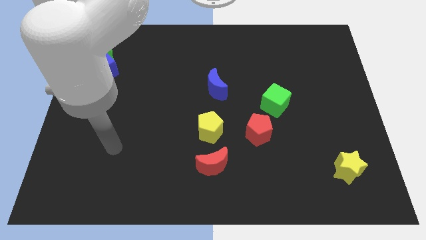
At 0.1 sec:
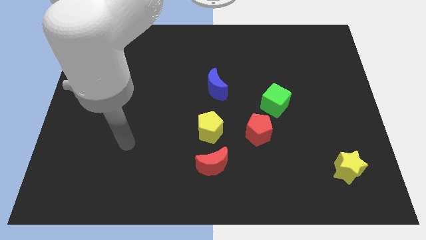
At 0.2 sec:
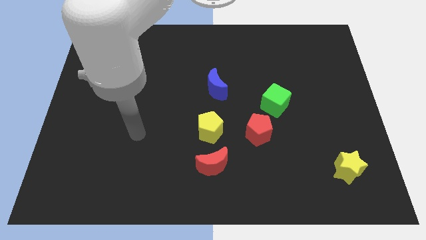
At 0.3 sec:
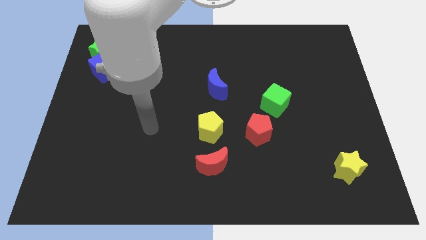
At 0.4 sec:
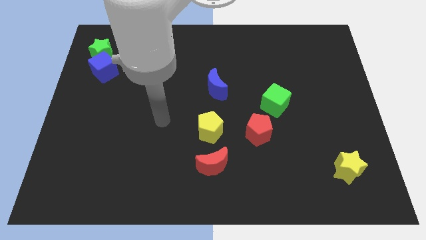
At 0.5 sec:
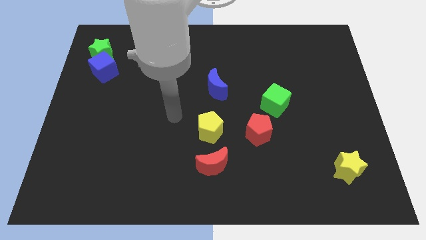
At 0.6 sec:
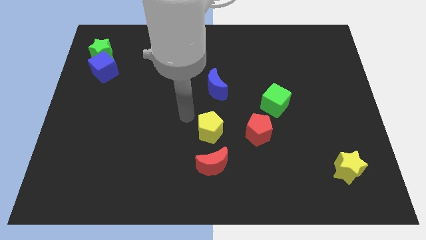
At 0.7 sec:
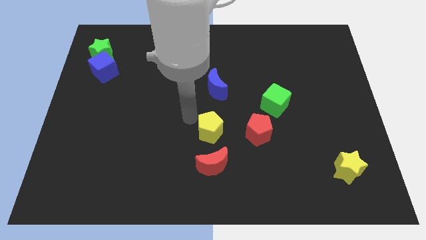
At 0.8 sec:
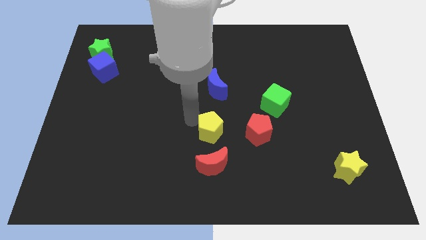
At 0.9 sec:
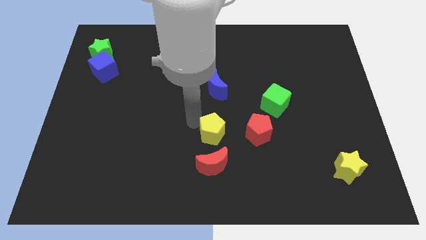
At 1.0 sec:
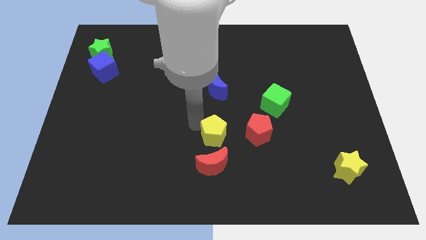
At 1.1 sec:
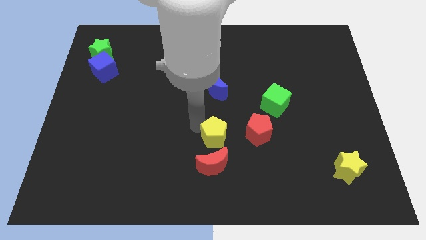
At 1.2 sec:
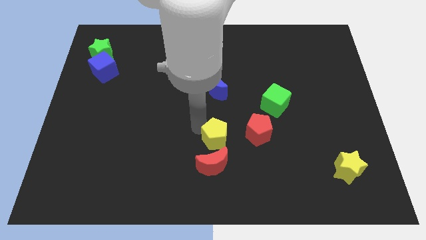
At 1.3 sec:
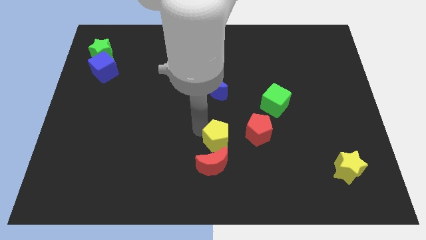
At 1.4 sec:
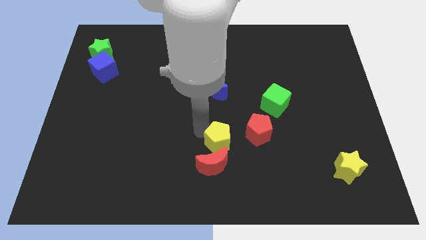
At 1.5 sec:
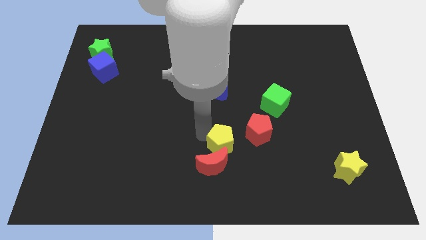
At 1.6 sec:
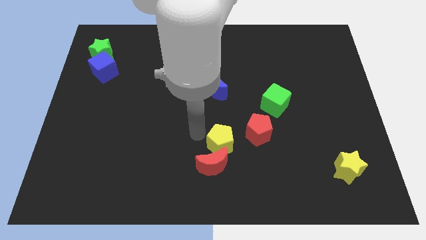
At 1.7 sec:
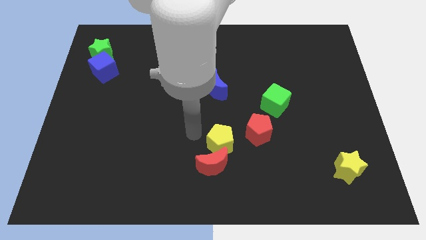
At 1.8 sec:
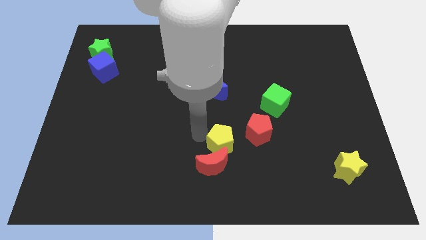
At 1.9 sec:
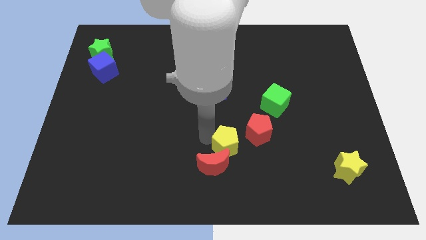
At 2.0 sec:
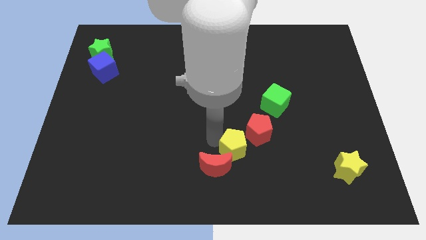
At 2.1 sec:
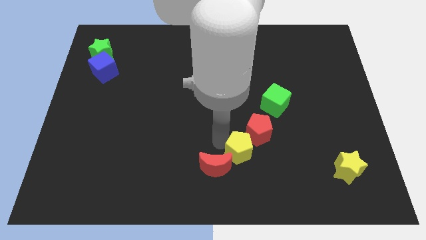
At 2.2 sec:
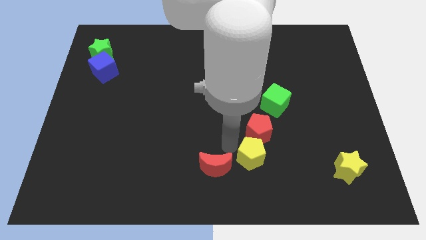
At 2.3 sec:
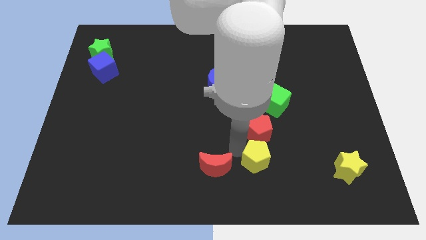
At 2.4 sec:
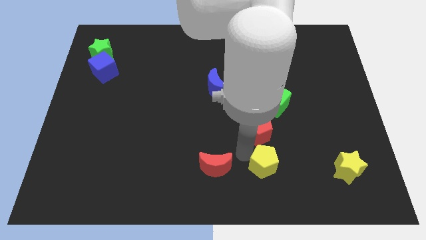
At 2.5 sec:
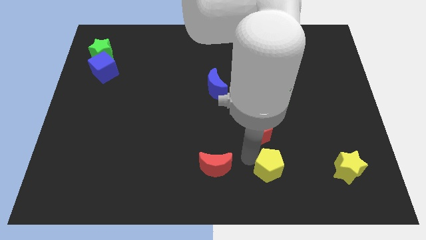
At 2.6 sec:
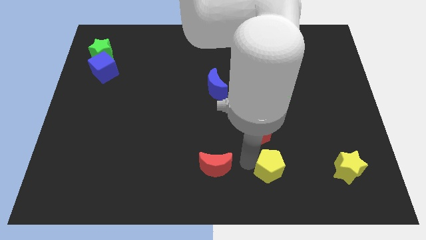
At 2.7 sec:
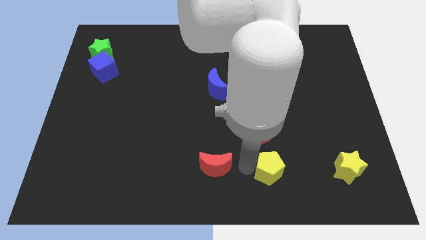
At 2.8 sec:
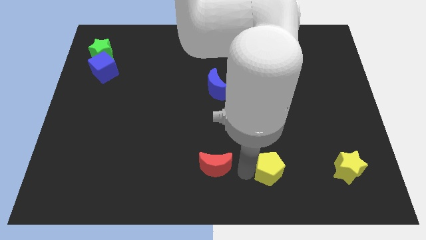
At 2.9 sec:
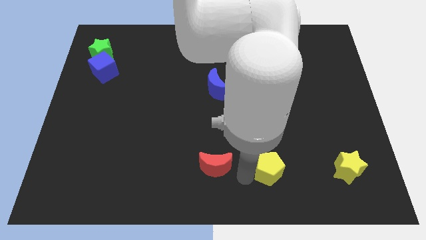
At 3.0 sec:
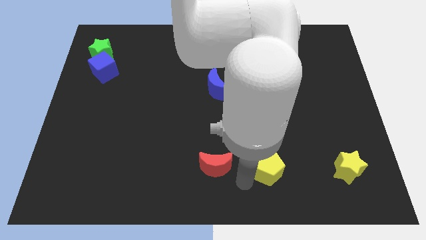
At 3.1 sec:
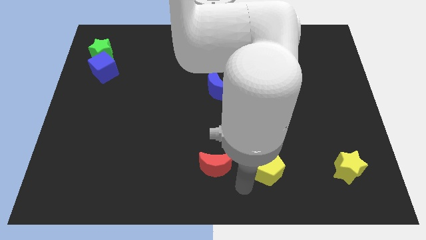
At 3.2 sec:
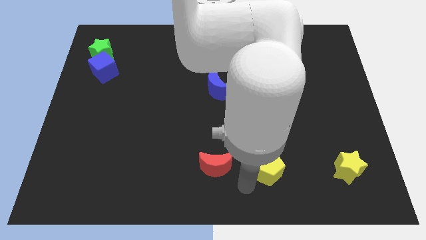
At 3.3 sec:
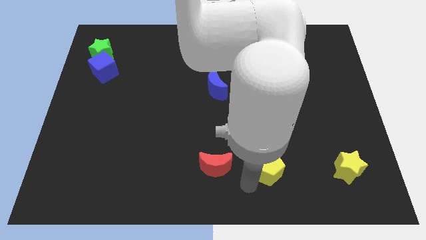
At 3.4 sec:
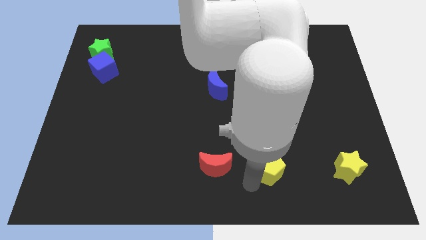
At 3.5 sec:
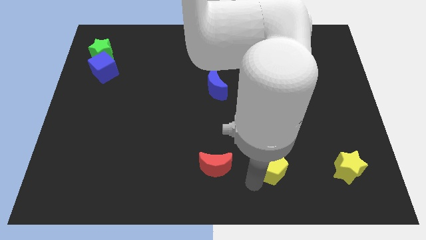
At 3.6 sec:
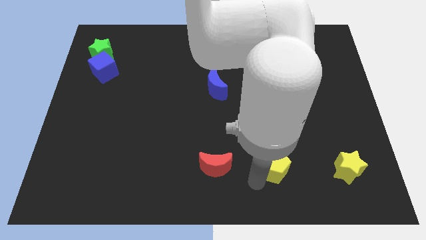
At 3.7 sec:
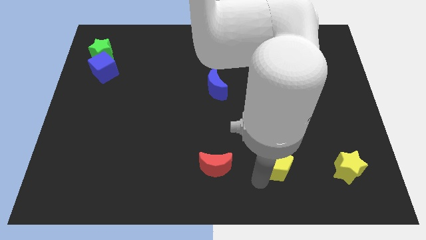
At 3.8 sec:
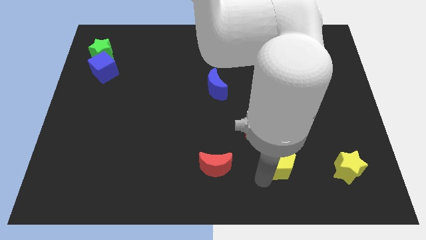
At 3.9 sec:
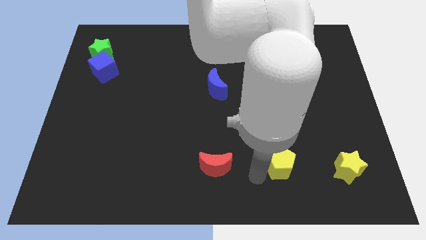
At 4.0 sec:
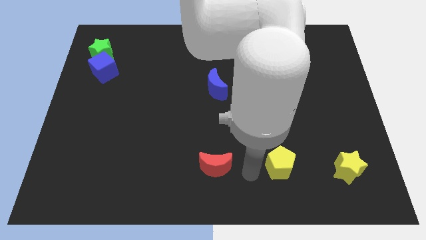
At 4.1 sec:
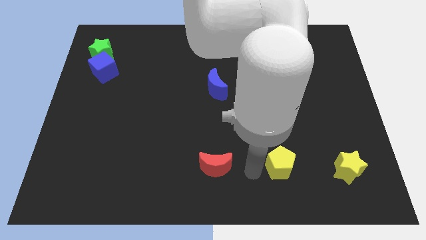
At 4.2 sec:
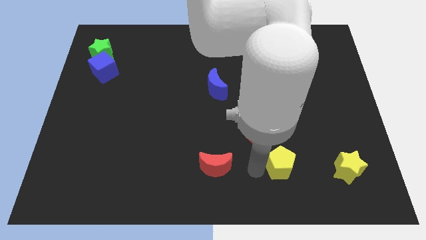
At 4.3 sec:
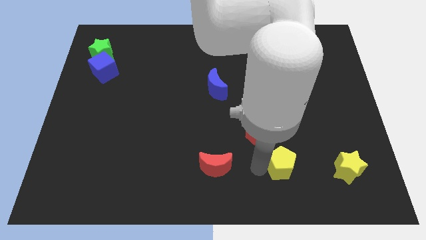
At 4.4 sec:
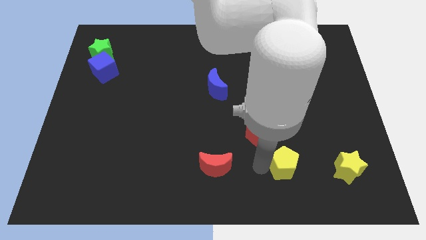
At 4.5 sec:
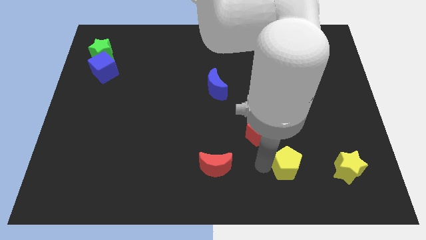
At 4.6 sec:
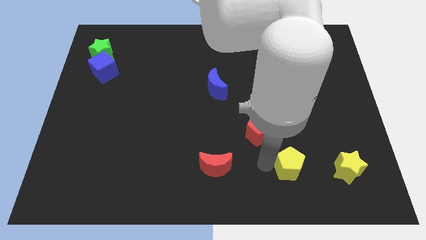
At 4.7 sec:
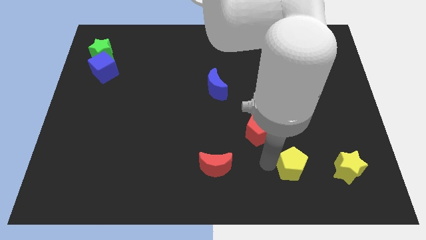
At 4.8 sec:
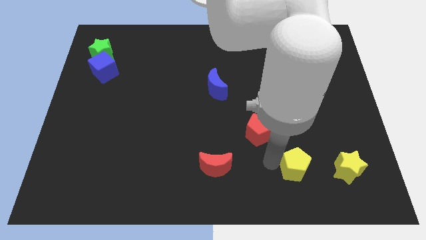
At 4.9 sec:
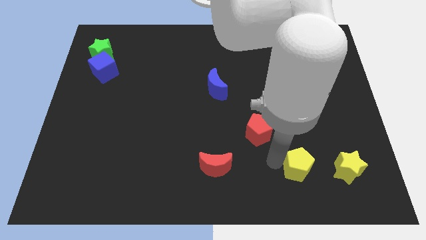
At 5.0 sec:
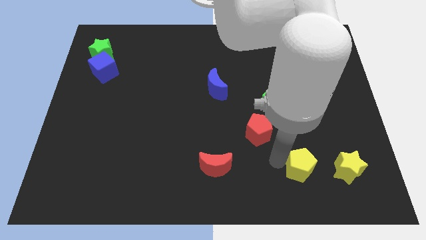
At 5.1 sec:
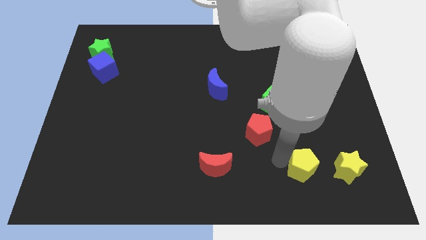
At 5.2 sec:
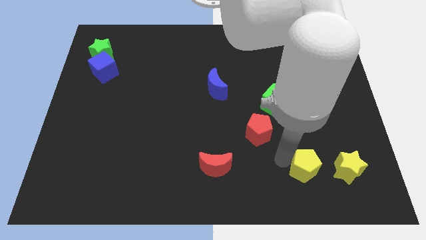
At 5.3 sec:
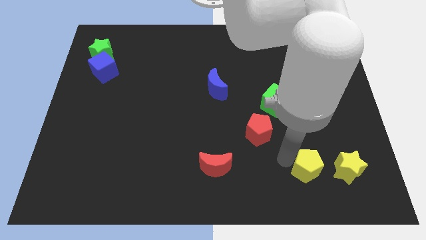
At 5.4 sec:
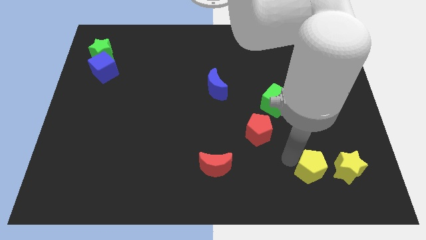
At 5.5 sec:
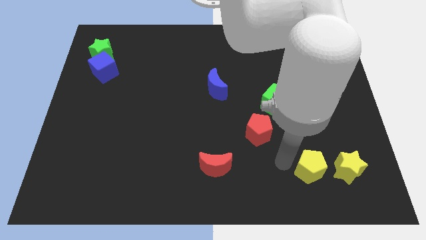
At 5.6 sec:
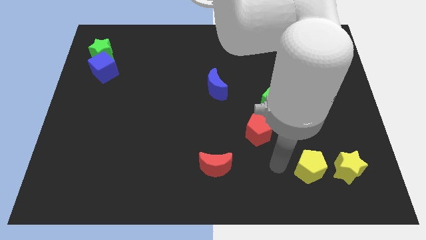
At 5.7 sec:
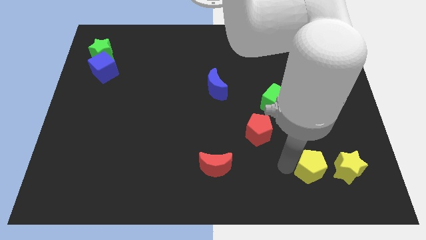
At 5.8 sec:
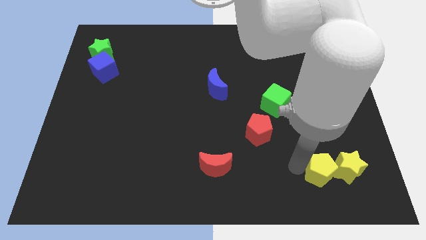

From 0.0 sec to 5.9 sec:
move the yellow pentagon towards the yellow star

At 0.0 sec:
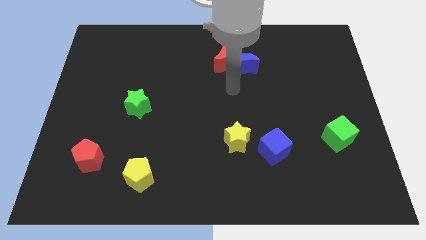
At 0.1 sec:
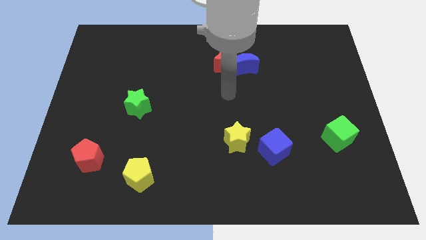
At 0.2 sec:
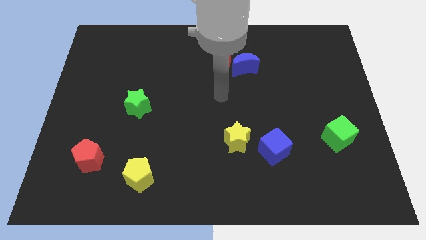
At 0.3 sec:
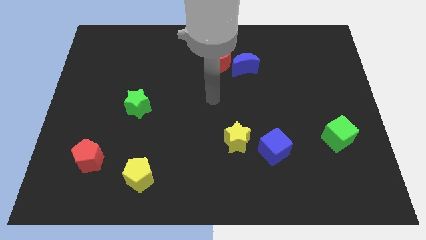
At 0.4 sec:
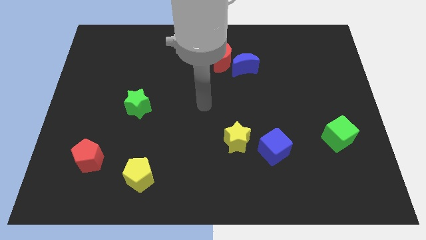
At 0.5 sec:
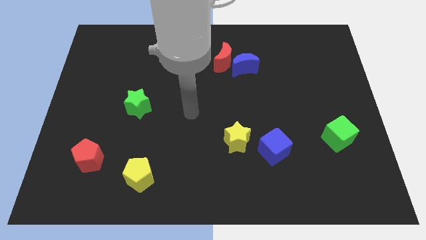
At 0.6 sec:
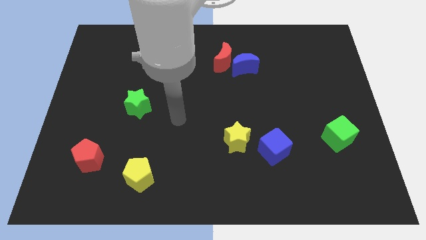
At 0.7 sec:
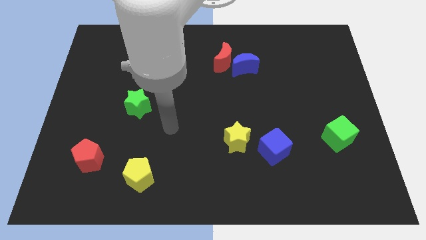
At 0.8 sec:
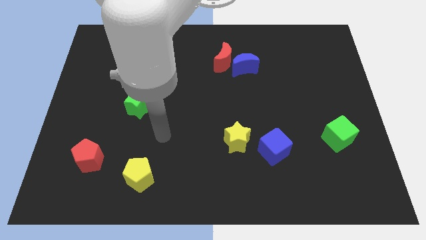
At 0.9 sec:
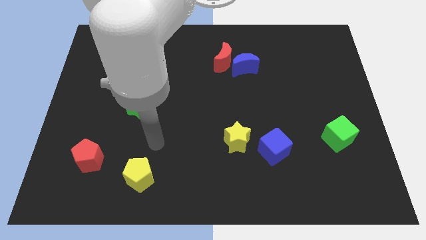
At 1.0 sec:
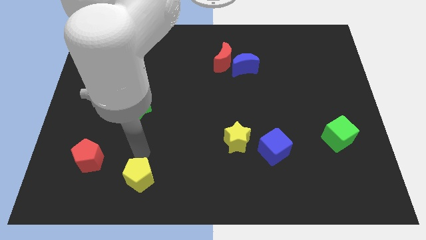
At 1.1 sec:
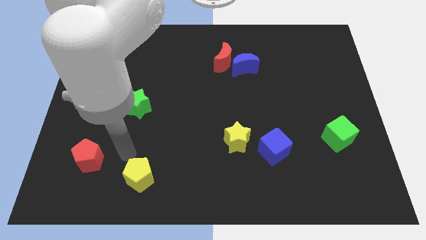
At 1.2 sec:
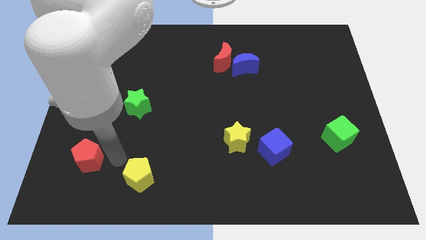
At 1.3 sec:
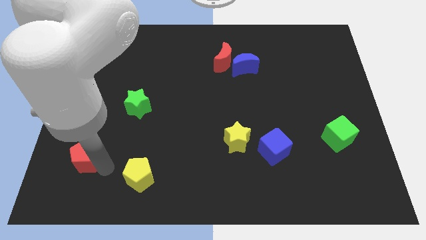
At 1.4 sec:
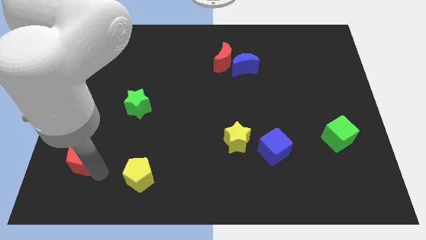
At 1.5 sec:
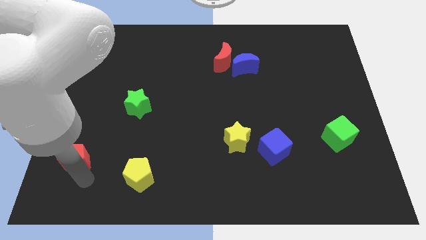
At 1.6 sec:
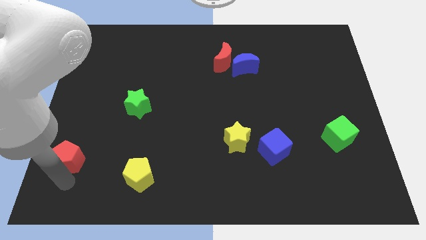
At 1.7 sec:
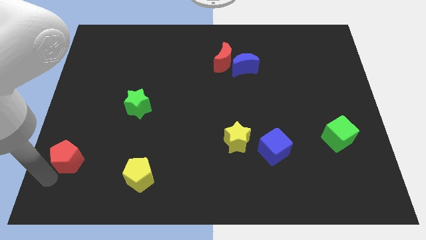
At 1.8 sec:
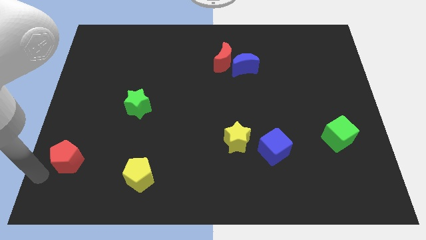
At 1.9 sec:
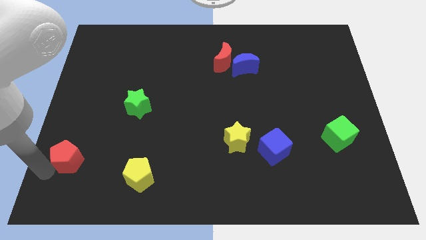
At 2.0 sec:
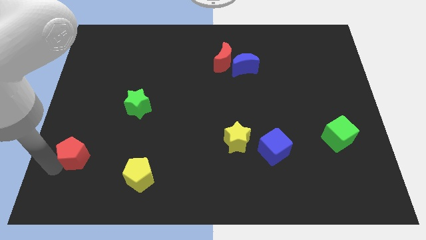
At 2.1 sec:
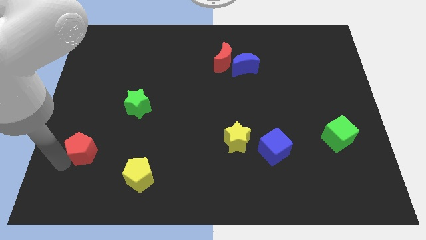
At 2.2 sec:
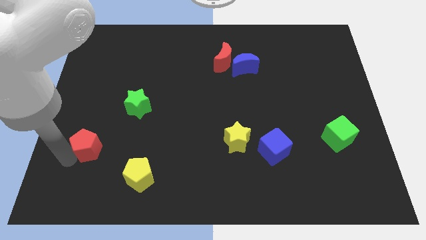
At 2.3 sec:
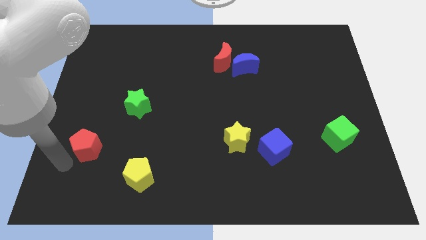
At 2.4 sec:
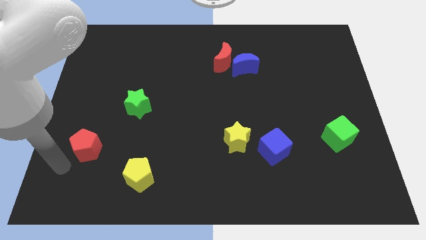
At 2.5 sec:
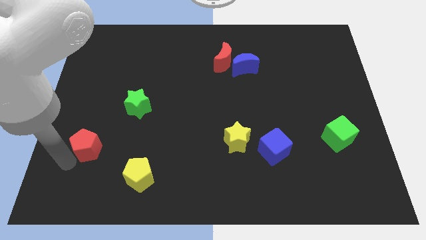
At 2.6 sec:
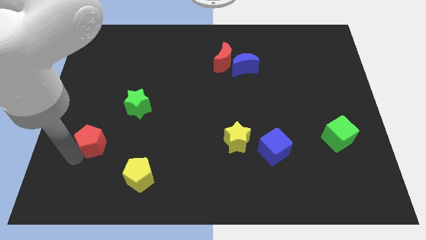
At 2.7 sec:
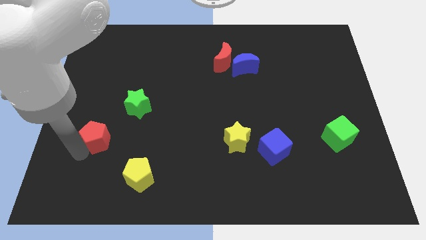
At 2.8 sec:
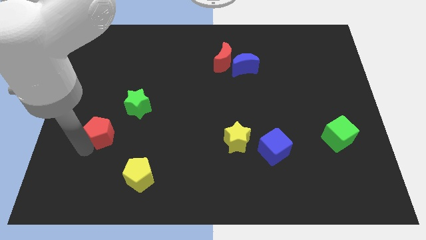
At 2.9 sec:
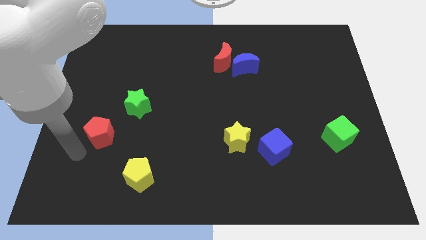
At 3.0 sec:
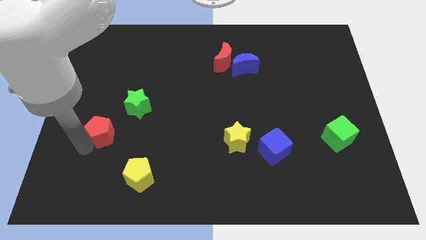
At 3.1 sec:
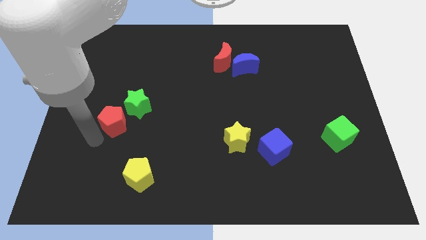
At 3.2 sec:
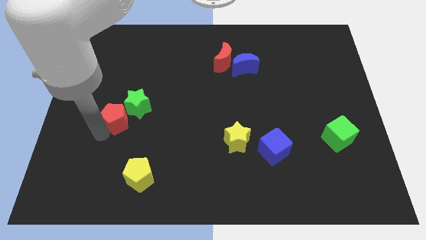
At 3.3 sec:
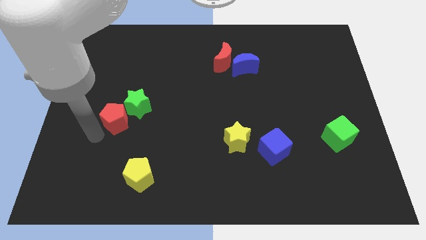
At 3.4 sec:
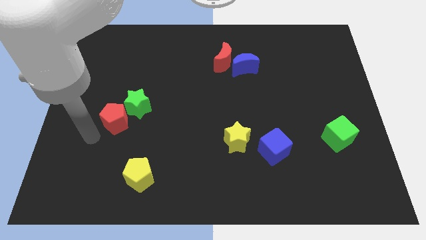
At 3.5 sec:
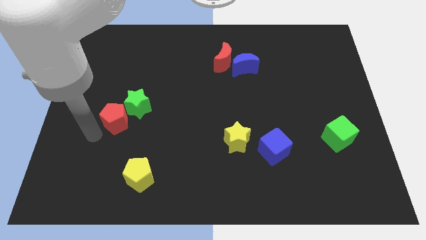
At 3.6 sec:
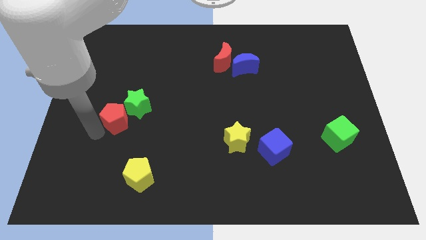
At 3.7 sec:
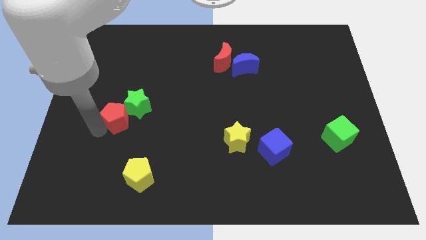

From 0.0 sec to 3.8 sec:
put the red pentagon towards the green star
